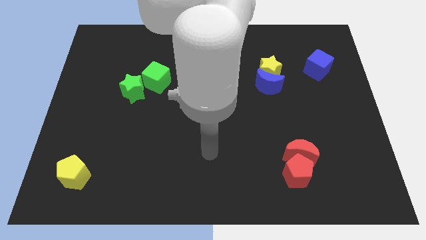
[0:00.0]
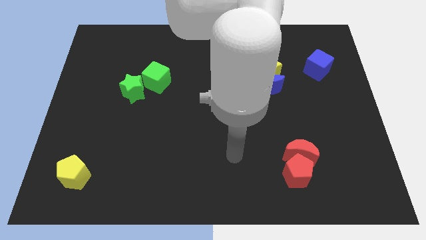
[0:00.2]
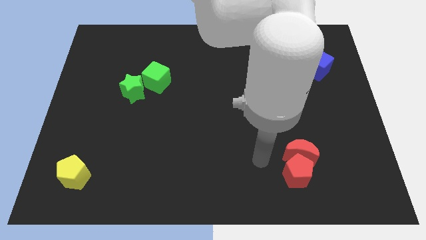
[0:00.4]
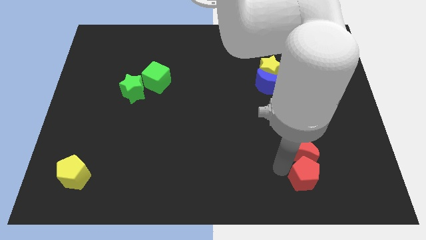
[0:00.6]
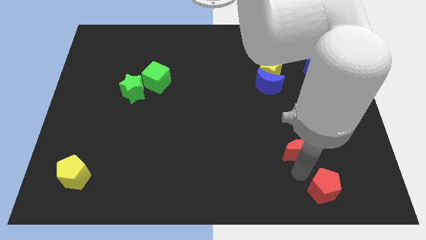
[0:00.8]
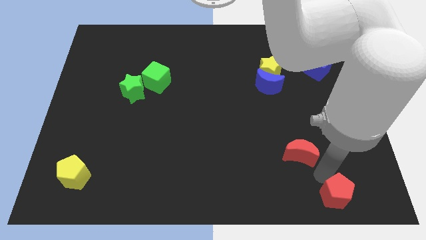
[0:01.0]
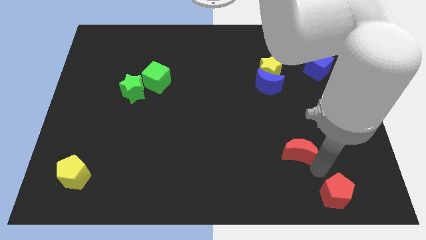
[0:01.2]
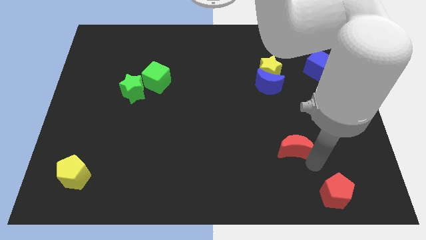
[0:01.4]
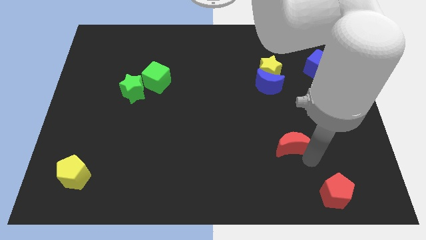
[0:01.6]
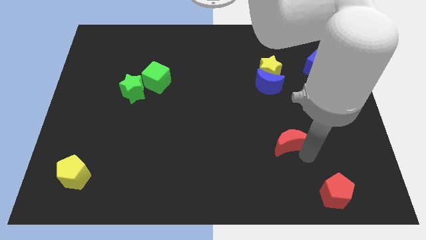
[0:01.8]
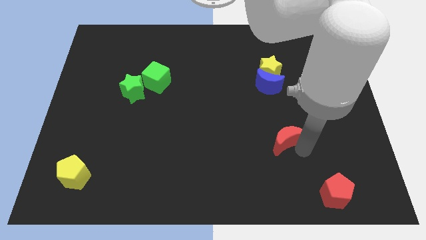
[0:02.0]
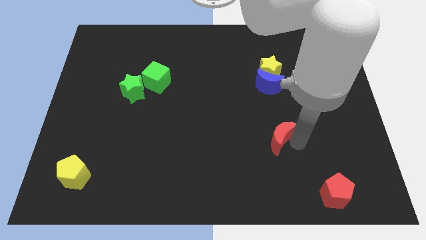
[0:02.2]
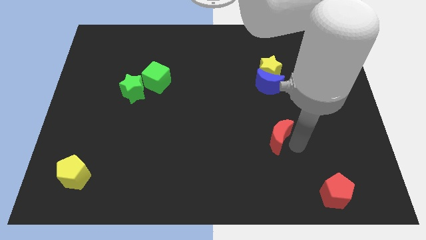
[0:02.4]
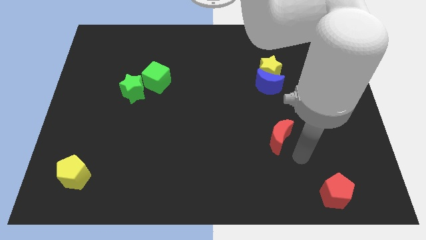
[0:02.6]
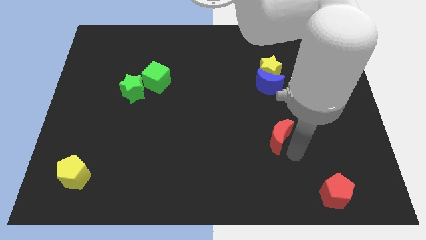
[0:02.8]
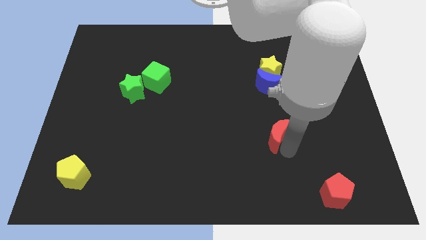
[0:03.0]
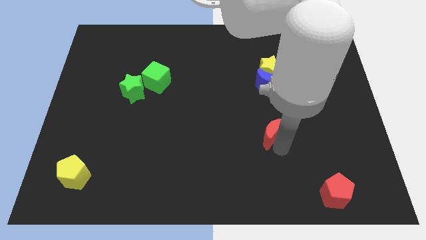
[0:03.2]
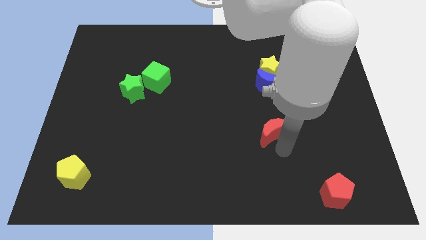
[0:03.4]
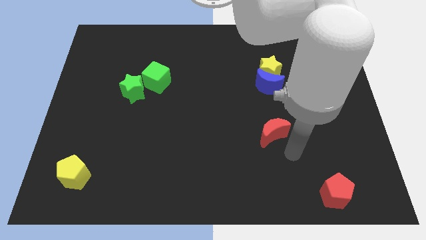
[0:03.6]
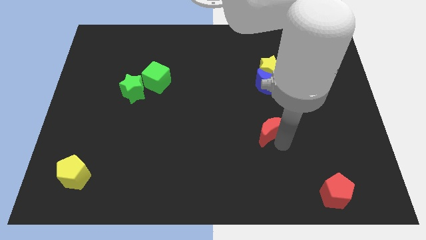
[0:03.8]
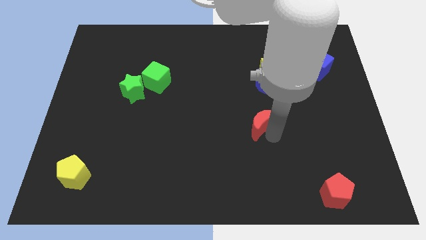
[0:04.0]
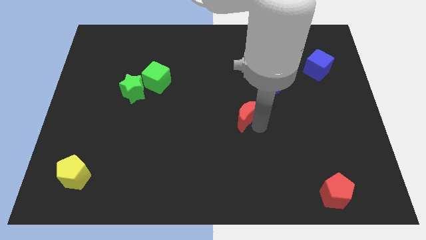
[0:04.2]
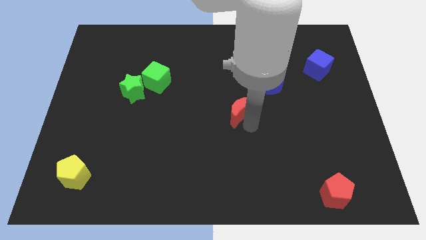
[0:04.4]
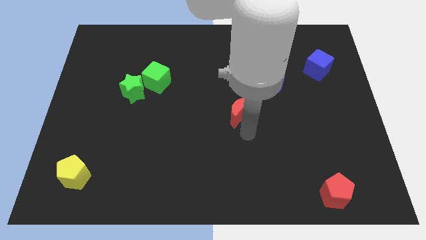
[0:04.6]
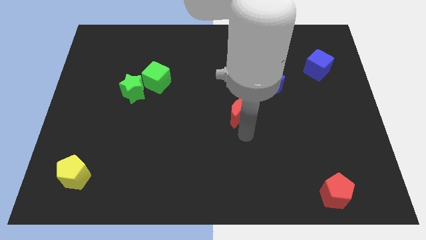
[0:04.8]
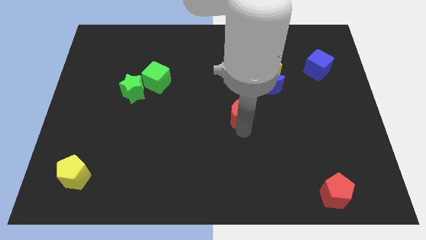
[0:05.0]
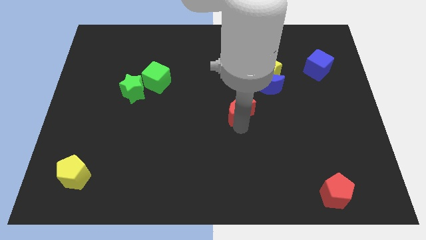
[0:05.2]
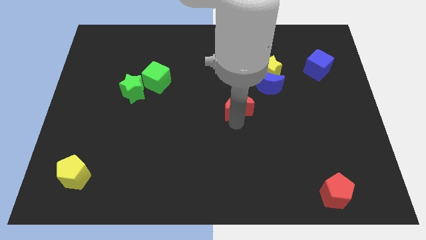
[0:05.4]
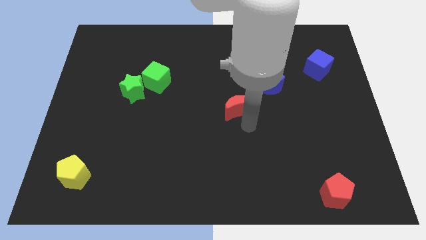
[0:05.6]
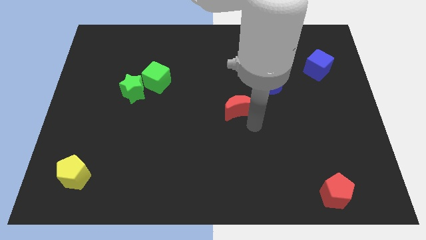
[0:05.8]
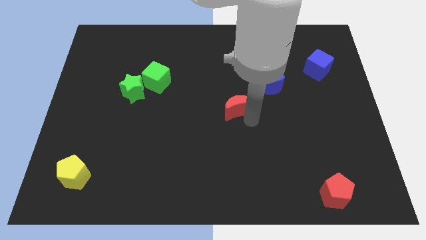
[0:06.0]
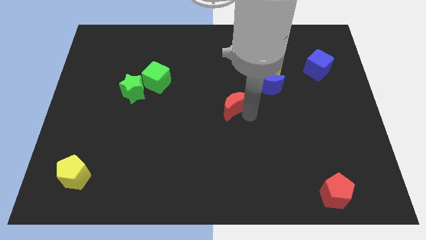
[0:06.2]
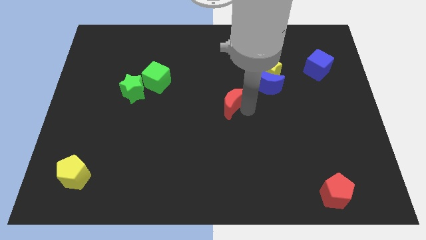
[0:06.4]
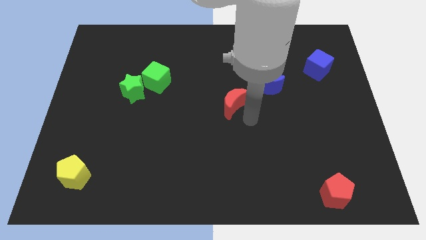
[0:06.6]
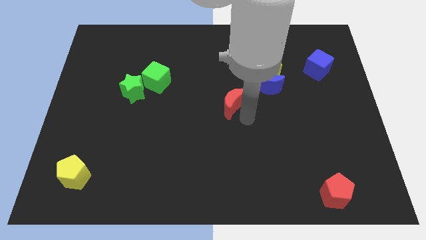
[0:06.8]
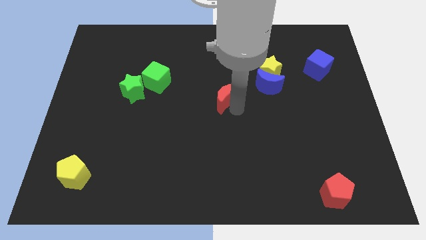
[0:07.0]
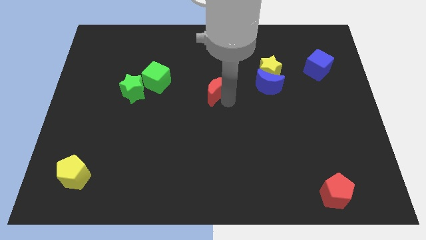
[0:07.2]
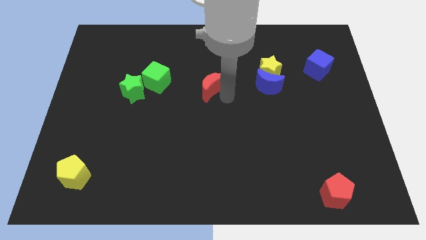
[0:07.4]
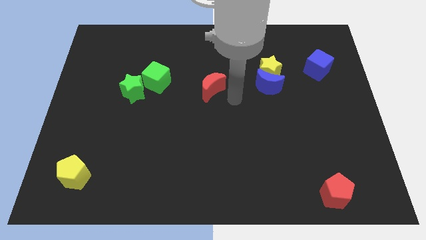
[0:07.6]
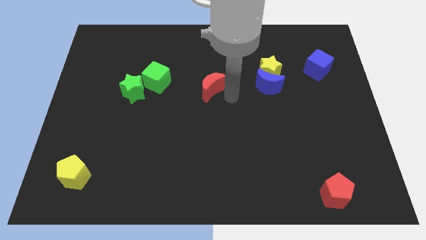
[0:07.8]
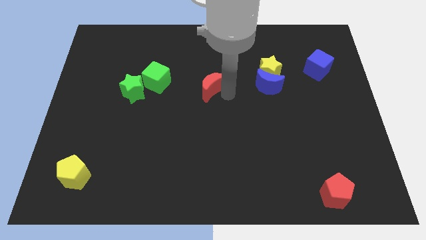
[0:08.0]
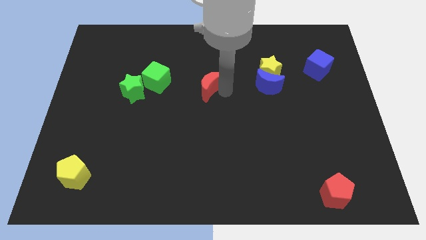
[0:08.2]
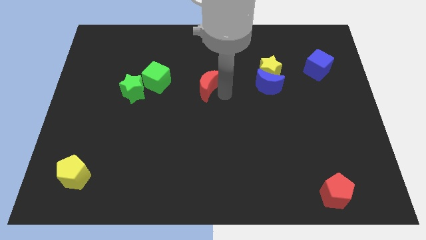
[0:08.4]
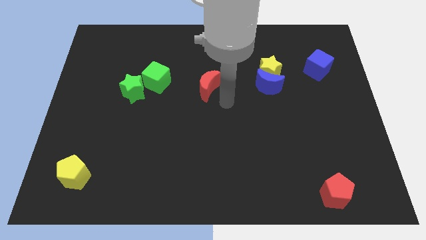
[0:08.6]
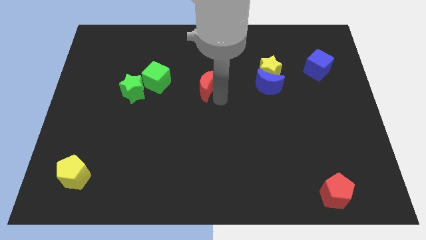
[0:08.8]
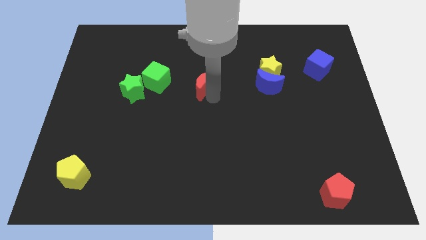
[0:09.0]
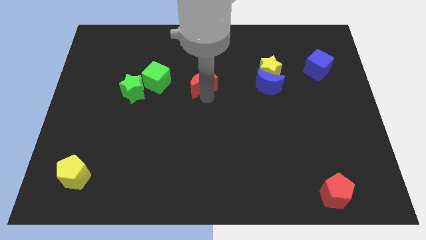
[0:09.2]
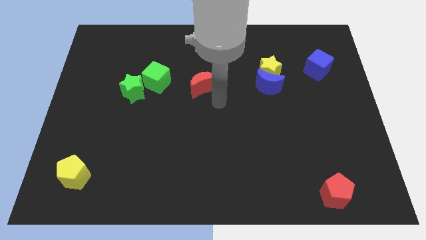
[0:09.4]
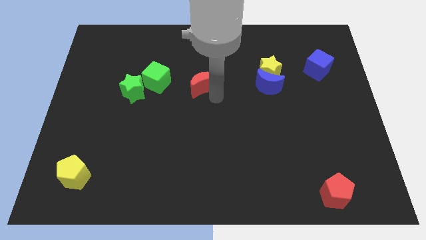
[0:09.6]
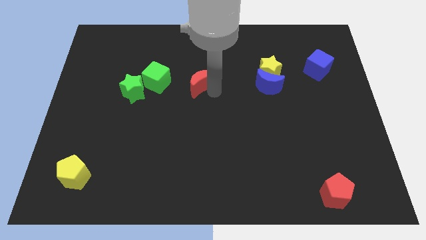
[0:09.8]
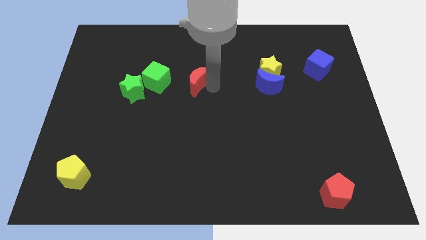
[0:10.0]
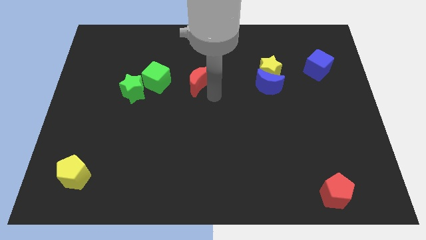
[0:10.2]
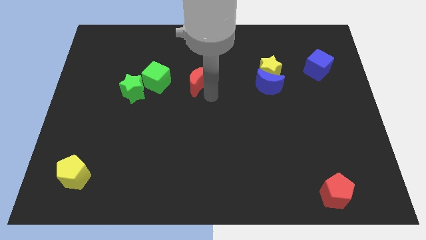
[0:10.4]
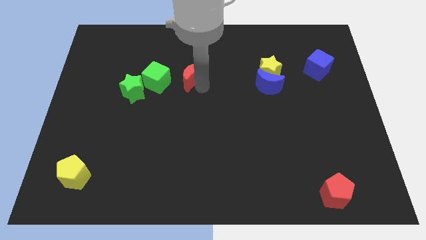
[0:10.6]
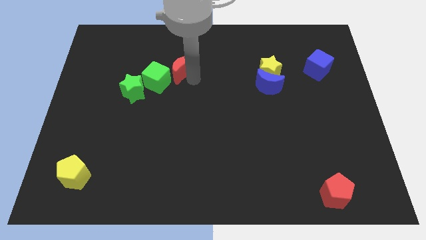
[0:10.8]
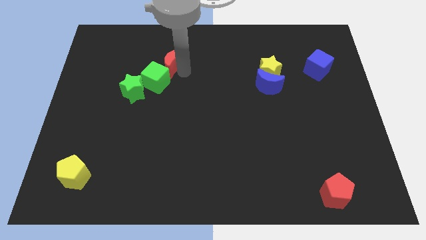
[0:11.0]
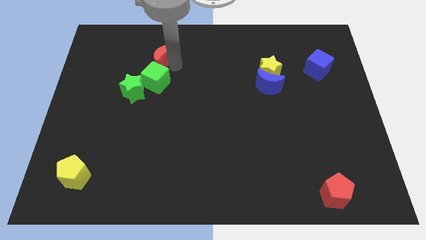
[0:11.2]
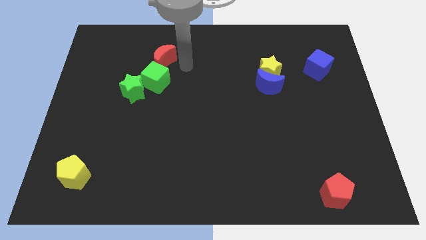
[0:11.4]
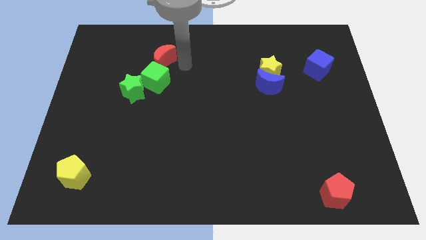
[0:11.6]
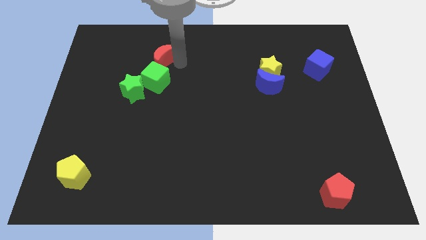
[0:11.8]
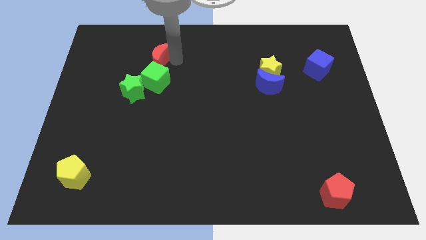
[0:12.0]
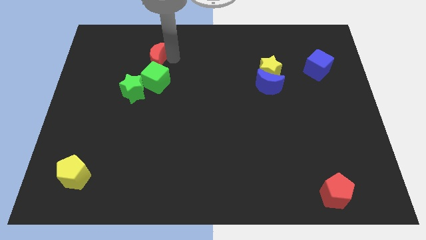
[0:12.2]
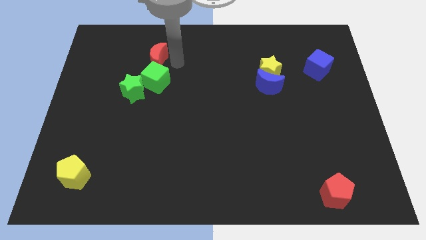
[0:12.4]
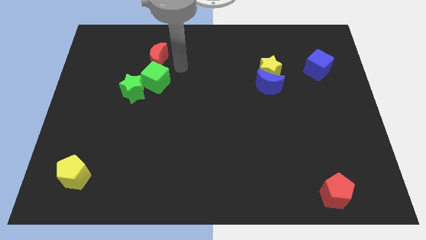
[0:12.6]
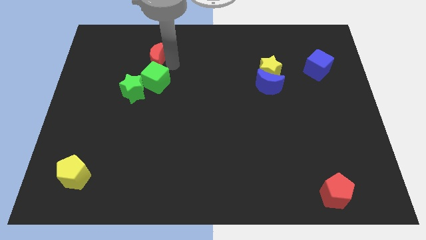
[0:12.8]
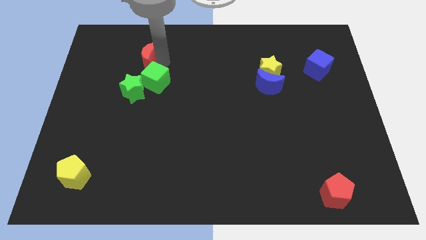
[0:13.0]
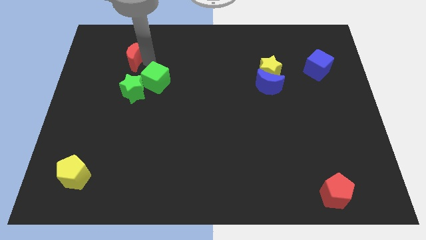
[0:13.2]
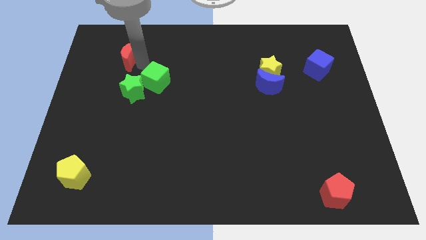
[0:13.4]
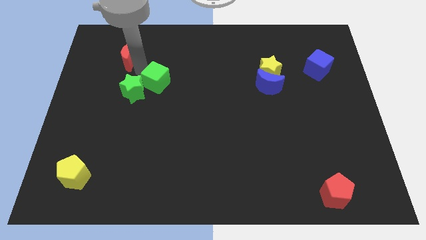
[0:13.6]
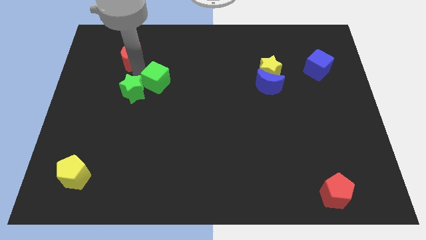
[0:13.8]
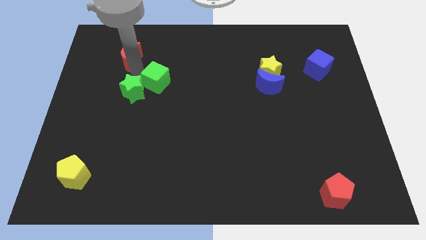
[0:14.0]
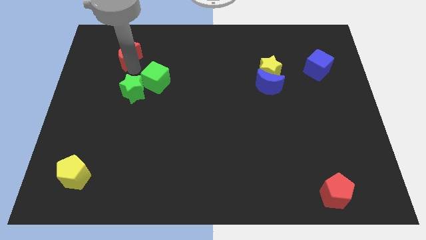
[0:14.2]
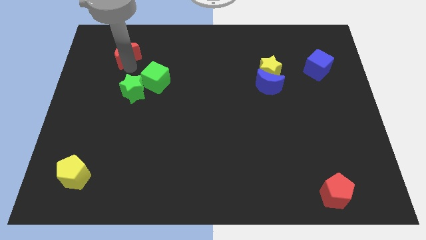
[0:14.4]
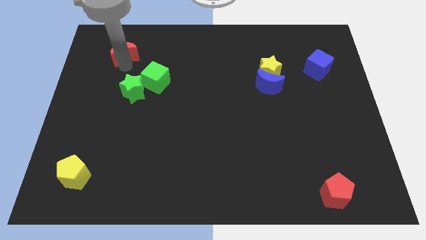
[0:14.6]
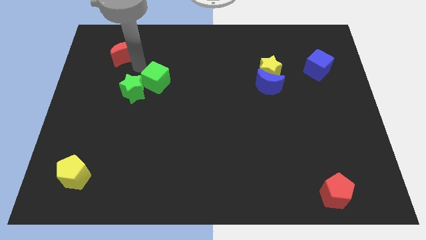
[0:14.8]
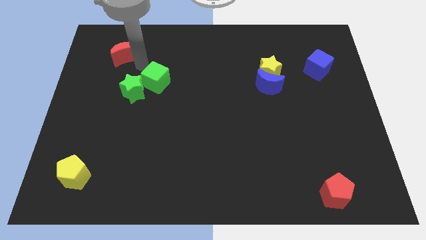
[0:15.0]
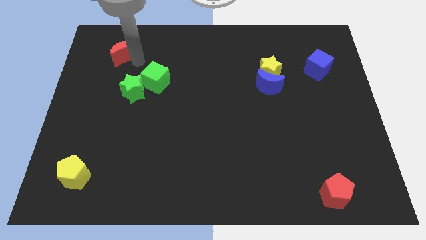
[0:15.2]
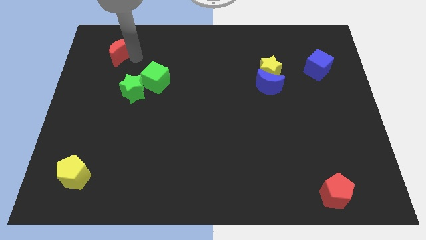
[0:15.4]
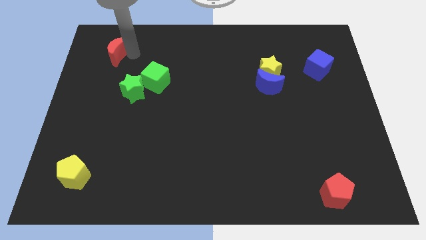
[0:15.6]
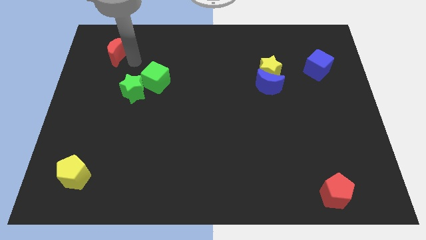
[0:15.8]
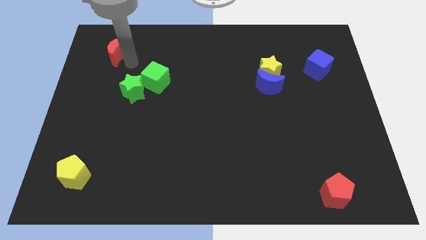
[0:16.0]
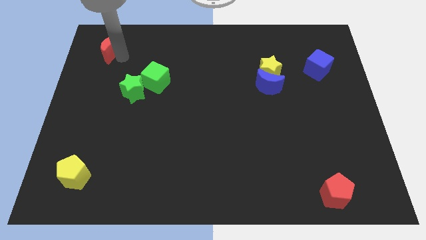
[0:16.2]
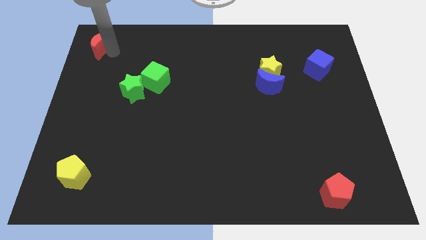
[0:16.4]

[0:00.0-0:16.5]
put the red moon to the top left
